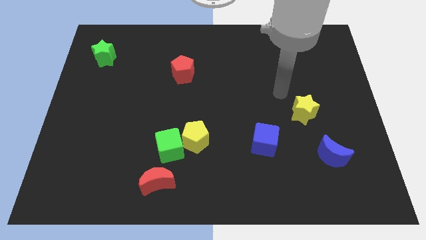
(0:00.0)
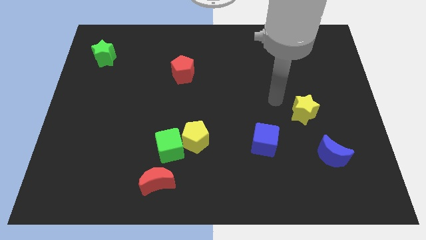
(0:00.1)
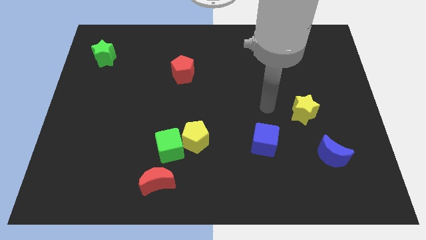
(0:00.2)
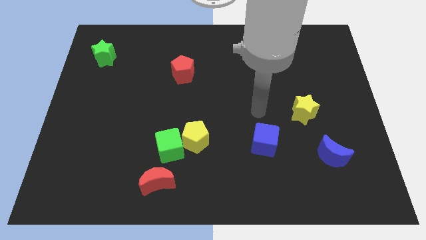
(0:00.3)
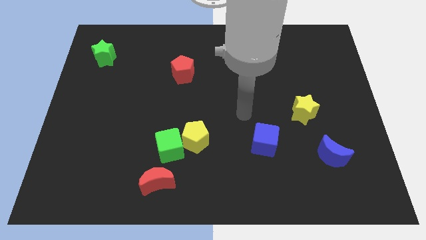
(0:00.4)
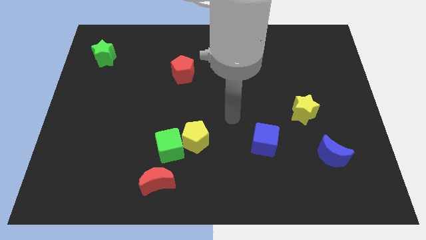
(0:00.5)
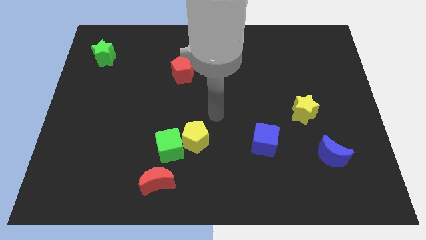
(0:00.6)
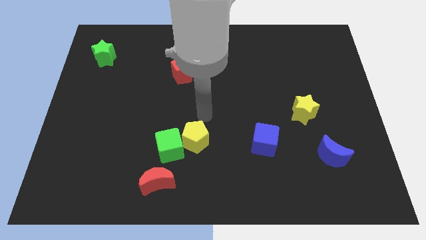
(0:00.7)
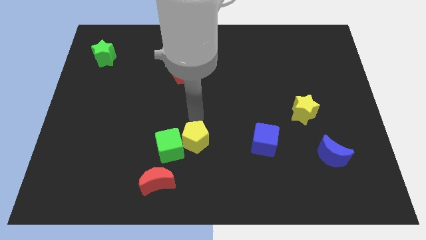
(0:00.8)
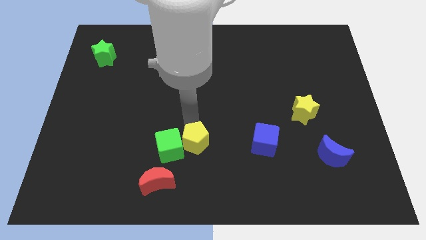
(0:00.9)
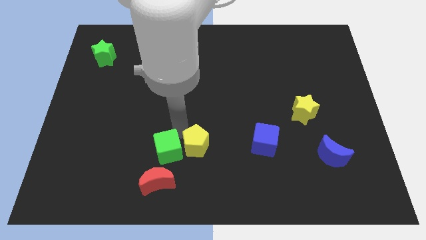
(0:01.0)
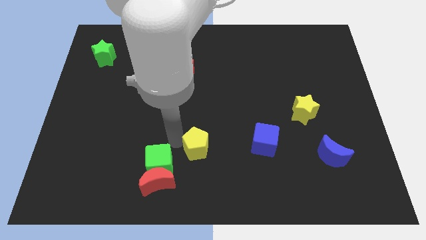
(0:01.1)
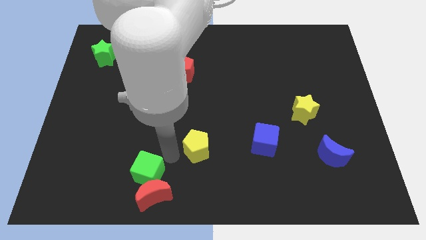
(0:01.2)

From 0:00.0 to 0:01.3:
move the yellow pentagon away from the green cube

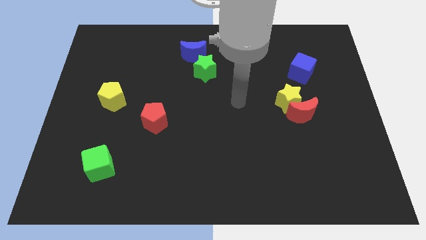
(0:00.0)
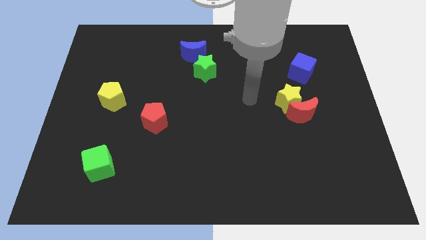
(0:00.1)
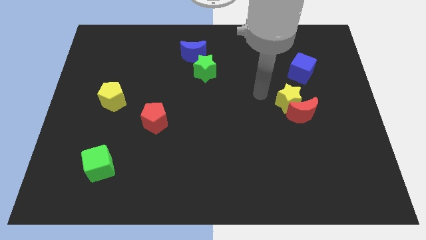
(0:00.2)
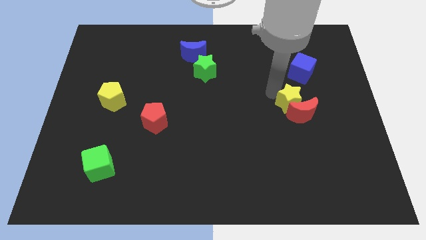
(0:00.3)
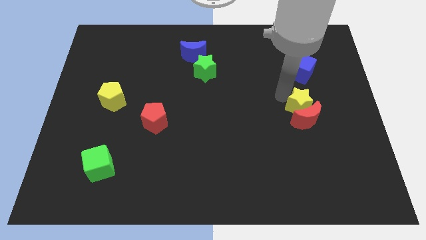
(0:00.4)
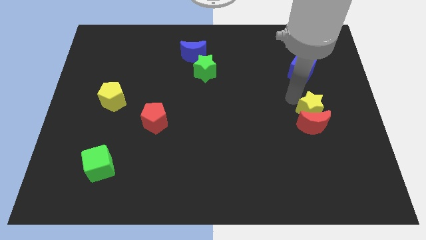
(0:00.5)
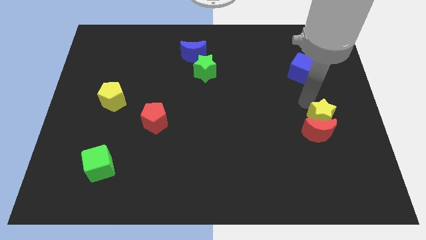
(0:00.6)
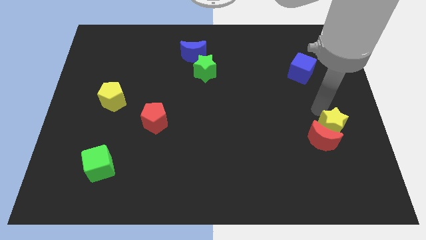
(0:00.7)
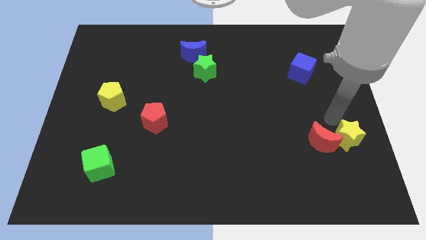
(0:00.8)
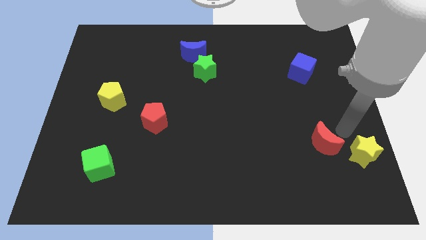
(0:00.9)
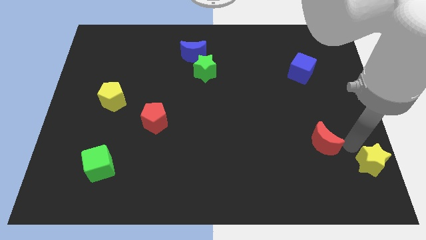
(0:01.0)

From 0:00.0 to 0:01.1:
move the red moon away from the yellow star

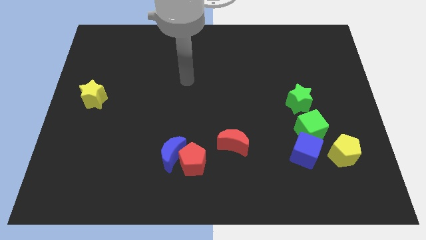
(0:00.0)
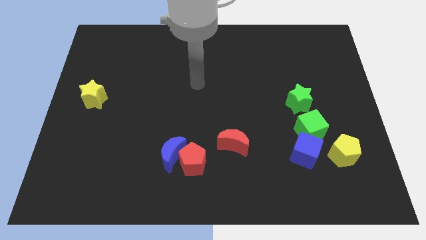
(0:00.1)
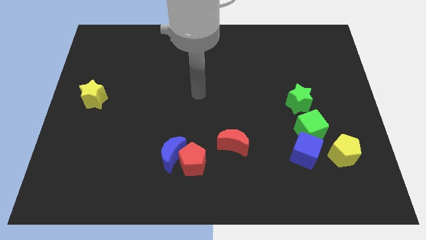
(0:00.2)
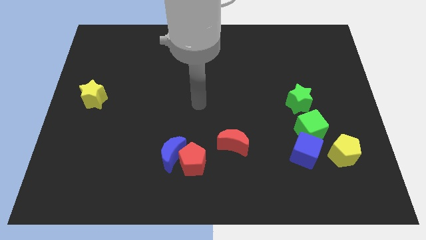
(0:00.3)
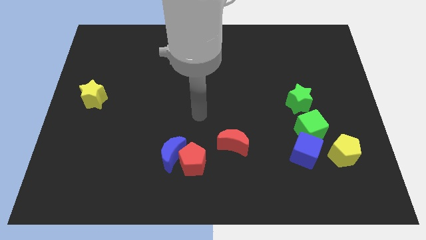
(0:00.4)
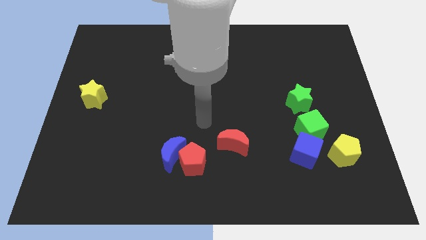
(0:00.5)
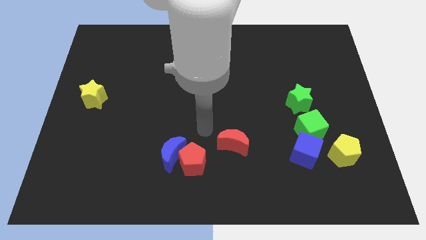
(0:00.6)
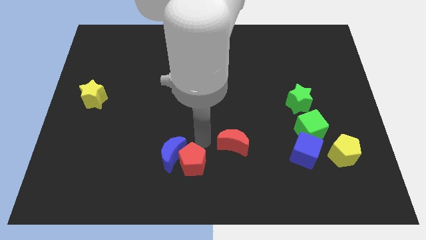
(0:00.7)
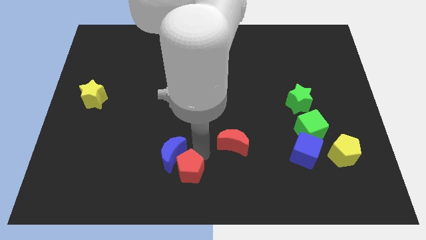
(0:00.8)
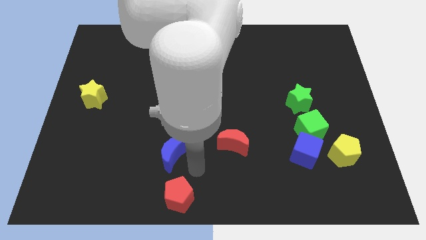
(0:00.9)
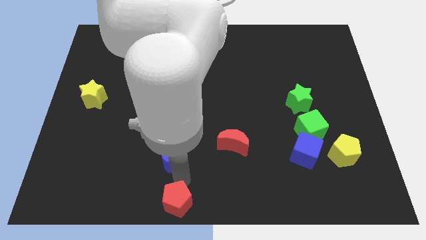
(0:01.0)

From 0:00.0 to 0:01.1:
pull the blue moon apart from the red pentagon

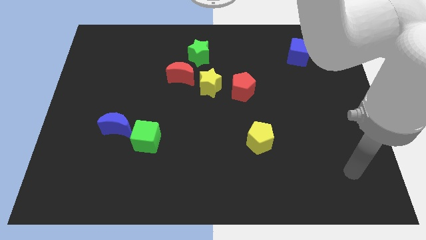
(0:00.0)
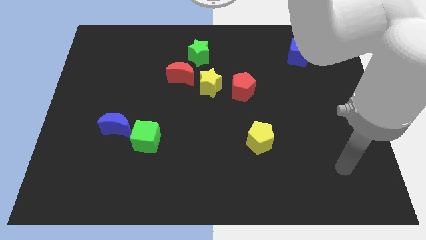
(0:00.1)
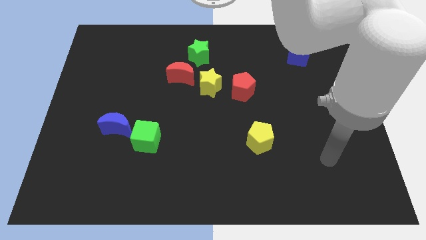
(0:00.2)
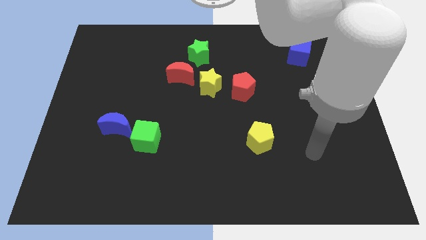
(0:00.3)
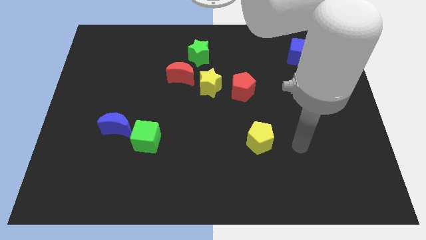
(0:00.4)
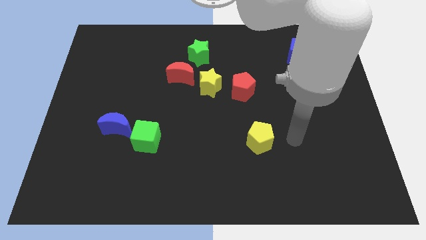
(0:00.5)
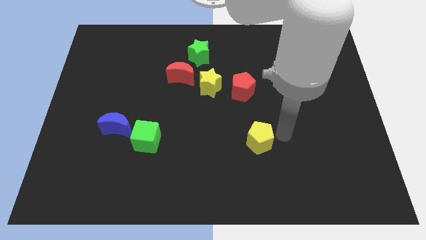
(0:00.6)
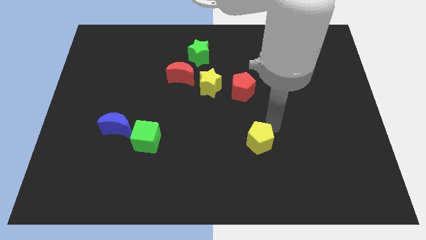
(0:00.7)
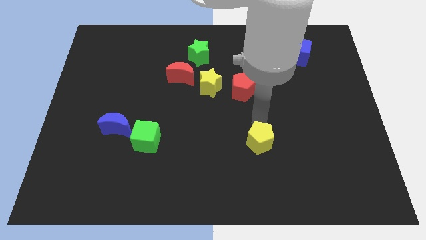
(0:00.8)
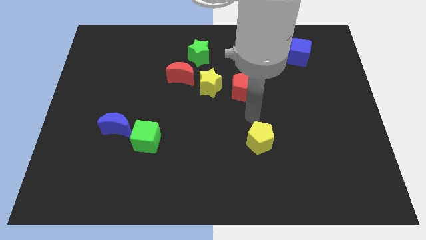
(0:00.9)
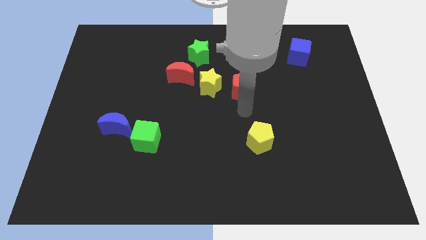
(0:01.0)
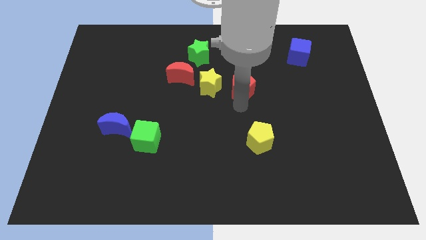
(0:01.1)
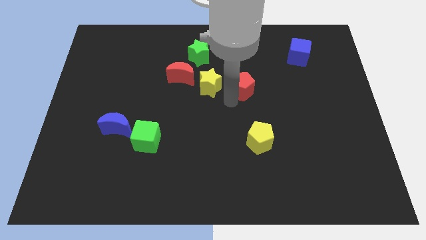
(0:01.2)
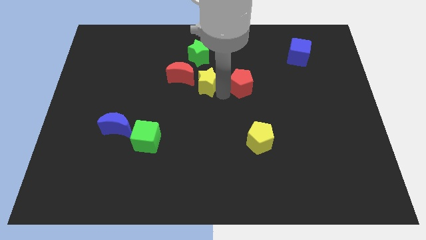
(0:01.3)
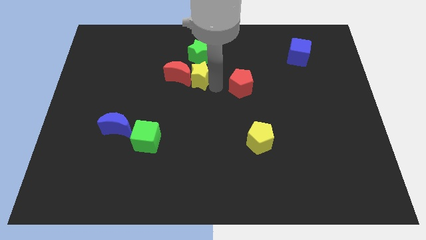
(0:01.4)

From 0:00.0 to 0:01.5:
pull the red pentagon apart from the yellow star

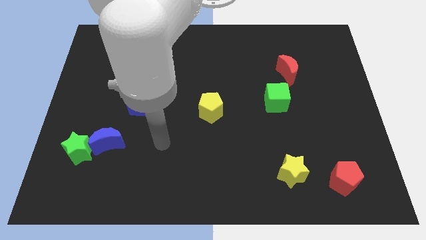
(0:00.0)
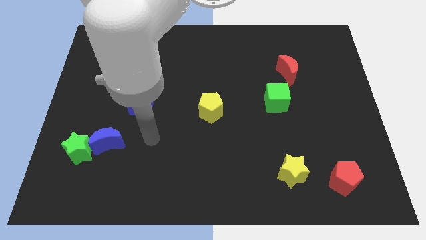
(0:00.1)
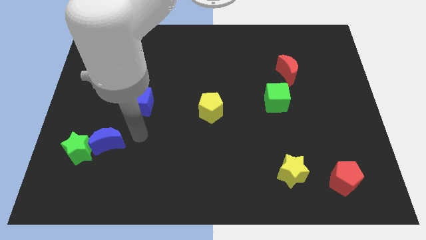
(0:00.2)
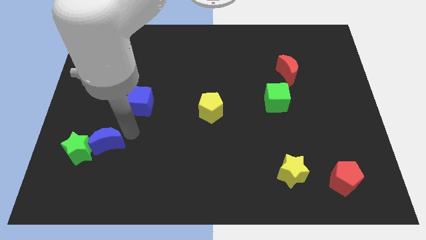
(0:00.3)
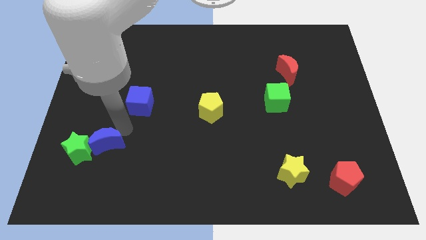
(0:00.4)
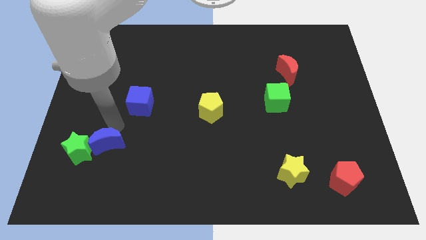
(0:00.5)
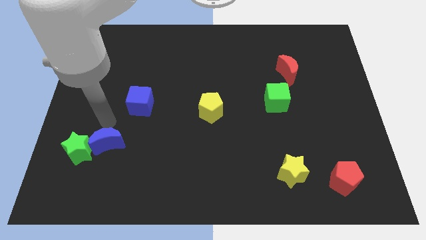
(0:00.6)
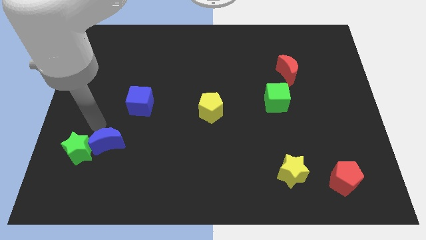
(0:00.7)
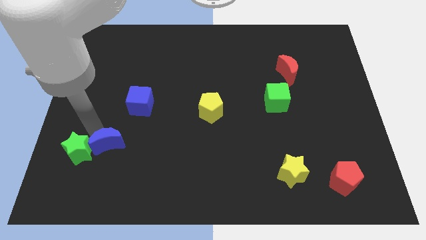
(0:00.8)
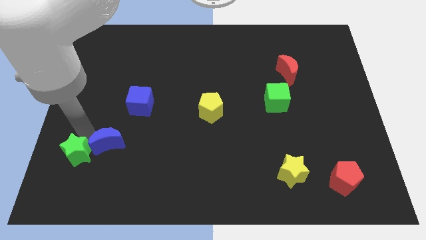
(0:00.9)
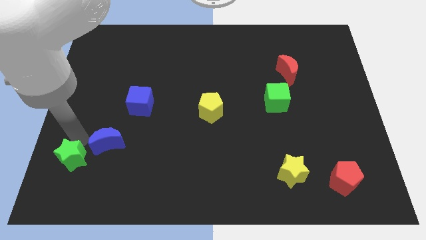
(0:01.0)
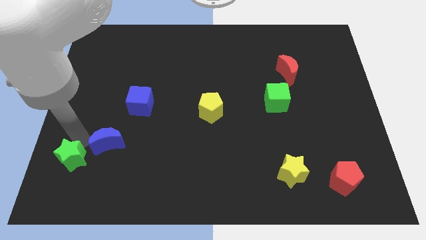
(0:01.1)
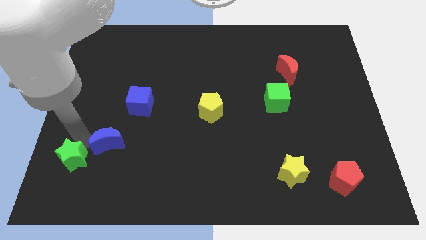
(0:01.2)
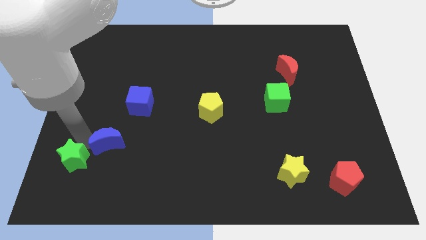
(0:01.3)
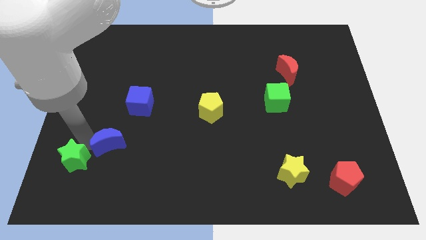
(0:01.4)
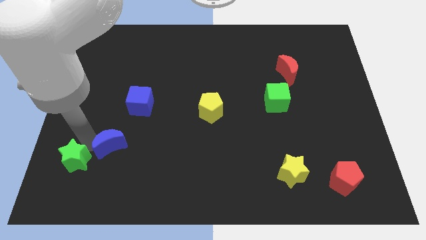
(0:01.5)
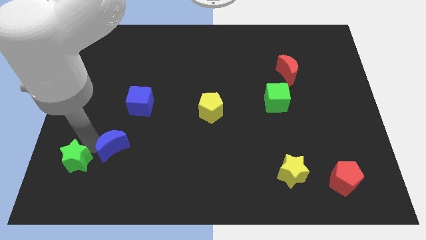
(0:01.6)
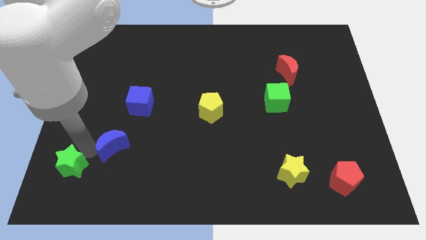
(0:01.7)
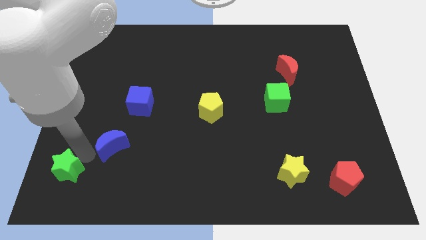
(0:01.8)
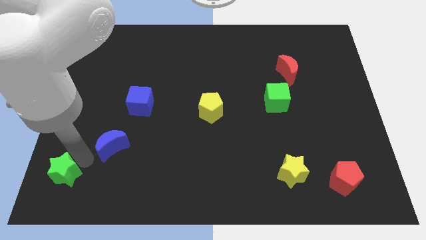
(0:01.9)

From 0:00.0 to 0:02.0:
separate the blue moon from the green star

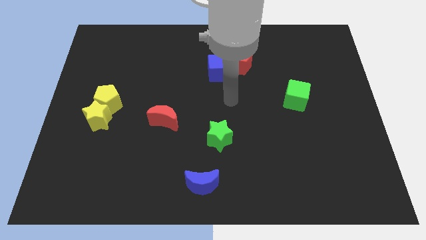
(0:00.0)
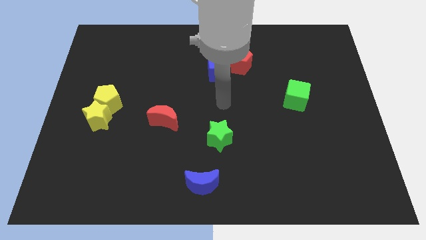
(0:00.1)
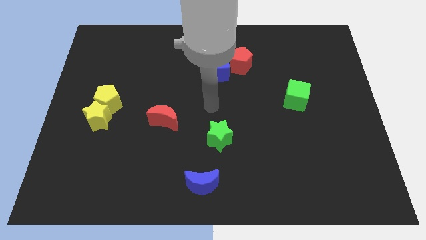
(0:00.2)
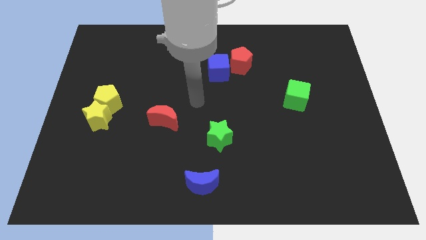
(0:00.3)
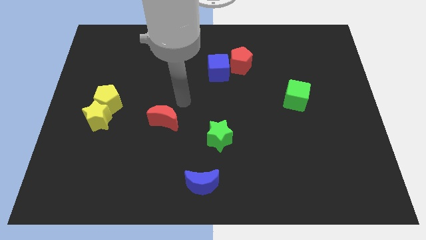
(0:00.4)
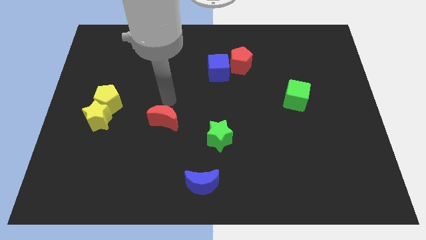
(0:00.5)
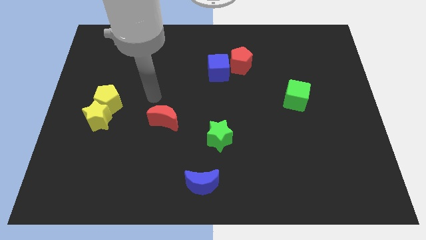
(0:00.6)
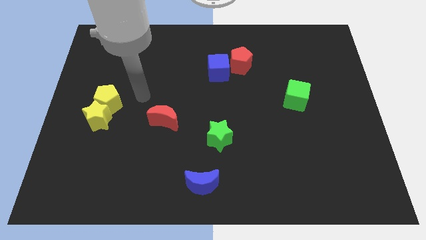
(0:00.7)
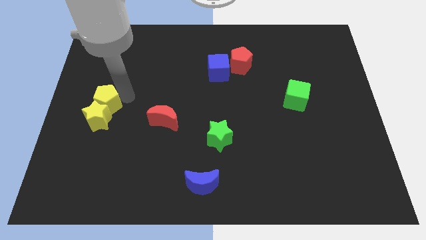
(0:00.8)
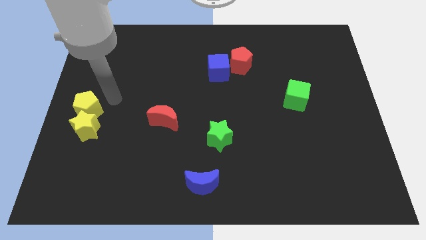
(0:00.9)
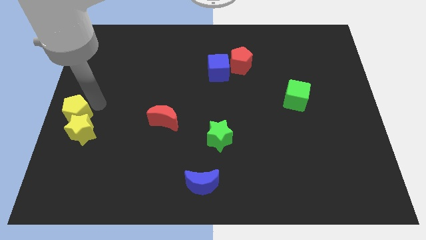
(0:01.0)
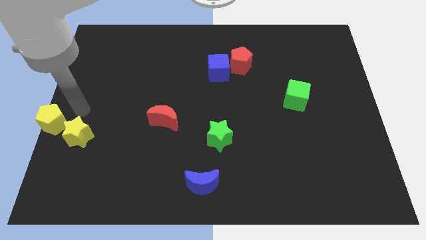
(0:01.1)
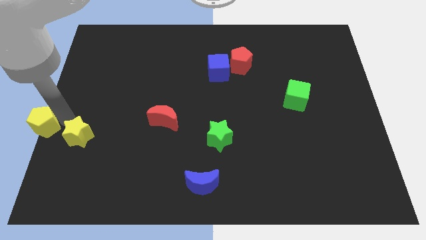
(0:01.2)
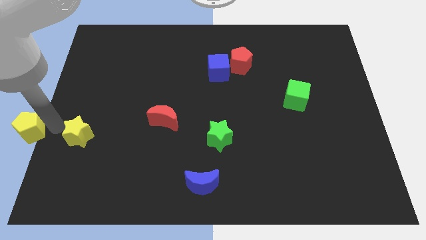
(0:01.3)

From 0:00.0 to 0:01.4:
pull the yellow star apart from the yellow pentagon

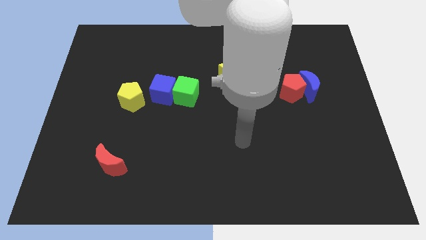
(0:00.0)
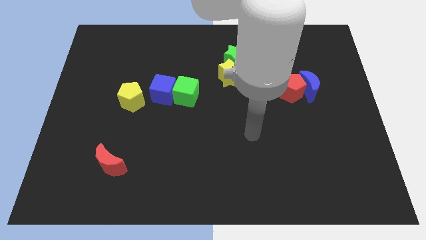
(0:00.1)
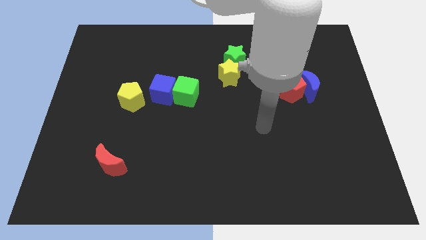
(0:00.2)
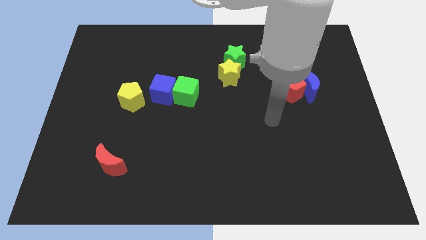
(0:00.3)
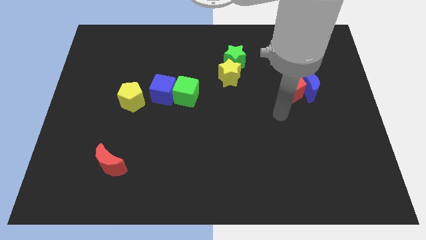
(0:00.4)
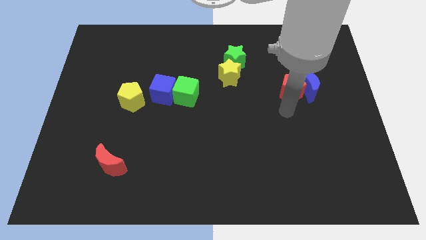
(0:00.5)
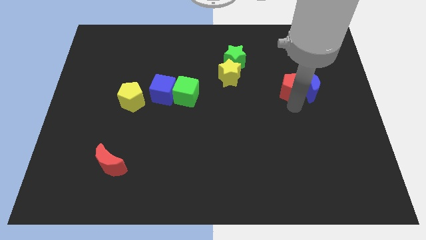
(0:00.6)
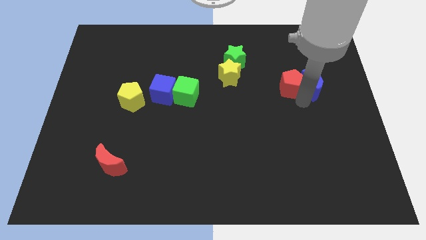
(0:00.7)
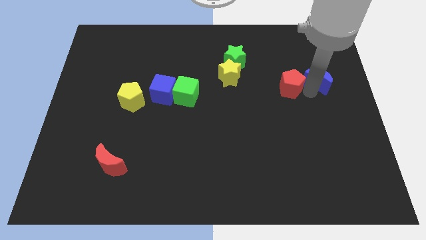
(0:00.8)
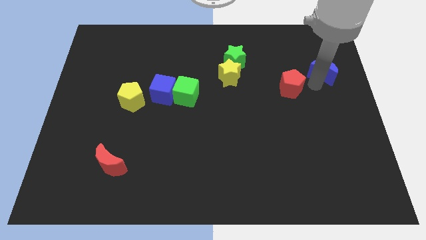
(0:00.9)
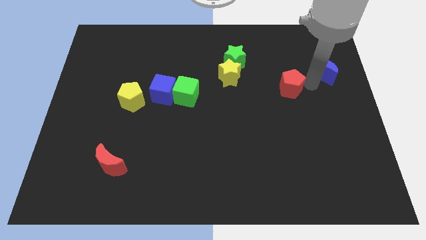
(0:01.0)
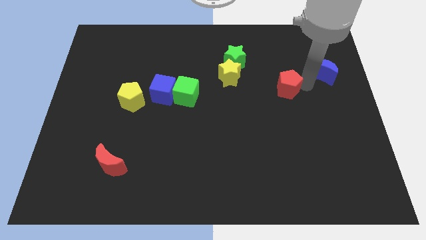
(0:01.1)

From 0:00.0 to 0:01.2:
separate the red pentagon from the blue moon
